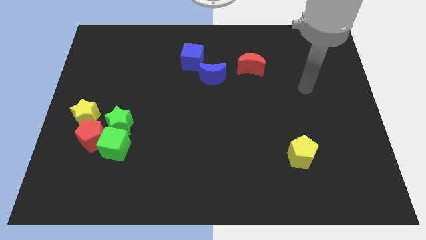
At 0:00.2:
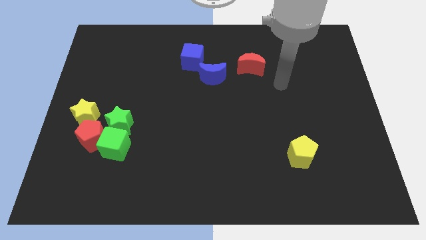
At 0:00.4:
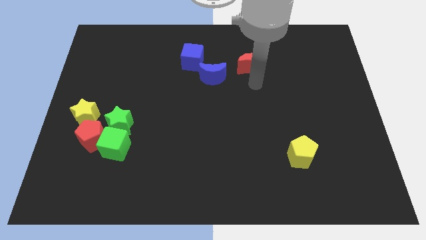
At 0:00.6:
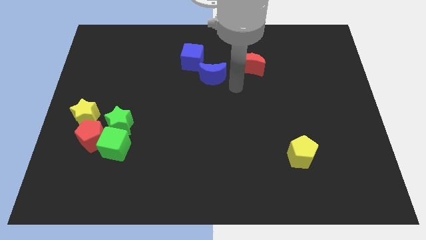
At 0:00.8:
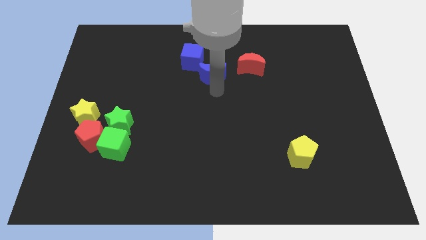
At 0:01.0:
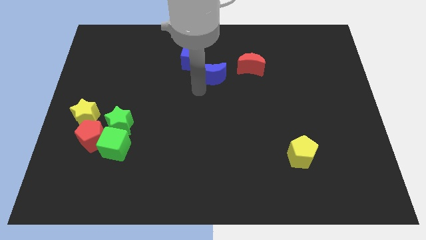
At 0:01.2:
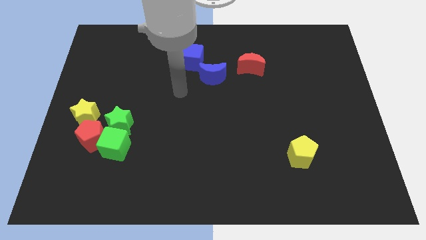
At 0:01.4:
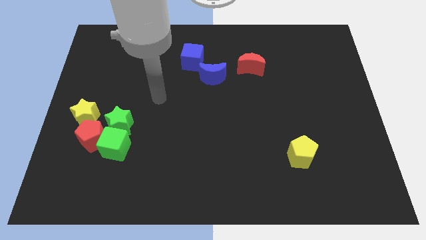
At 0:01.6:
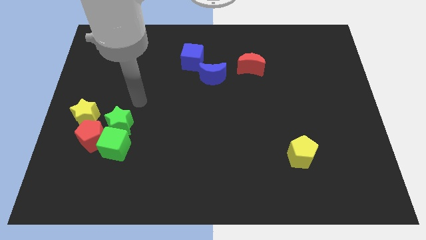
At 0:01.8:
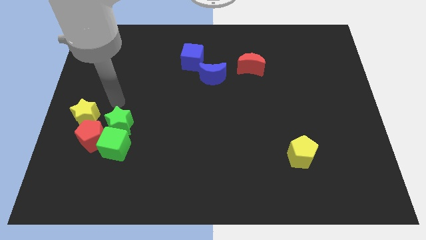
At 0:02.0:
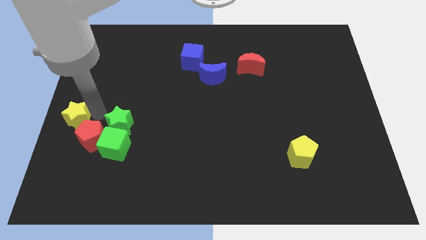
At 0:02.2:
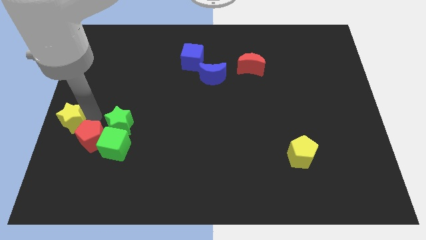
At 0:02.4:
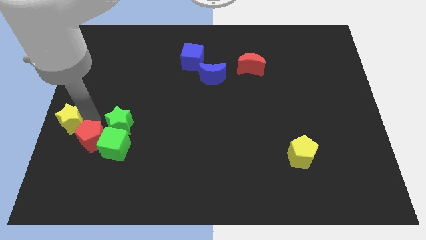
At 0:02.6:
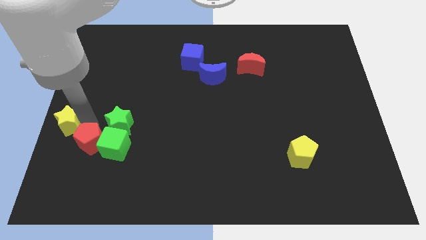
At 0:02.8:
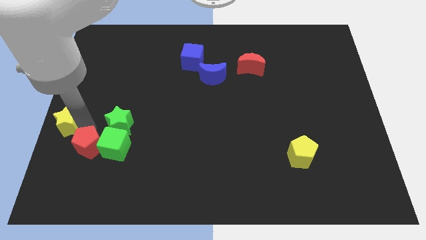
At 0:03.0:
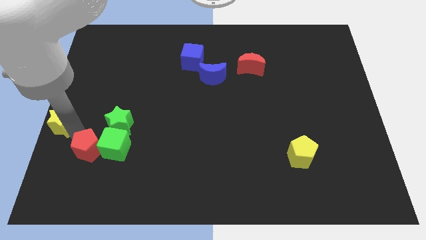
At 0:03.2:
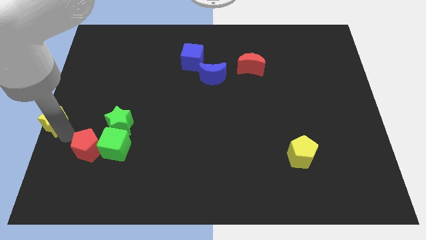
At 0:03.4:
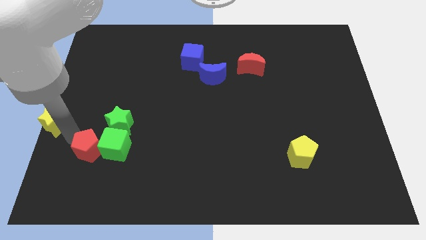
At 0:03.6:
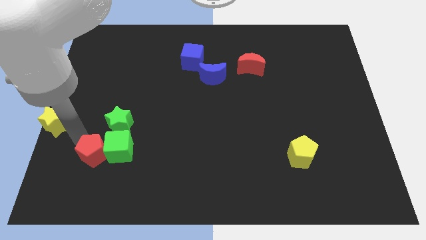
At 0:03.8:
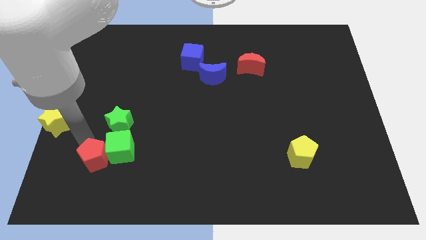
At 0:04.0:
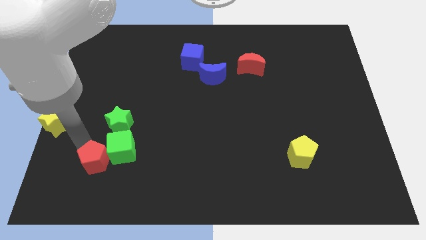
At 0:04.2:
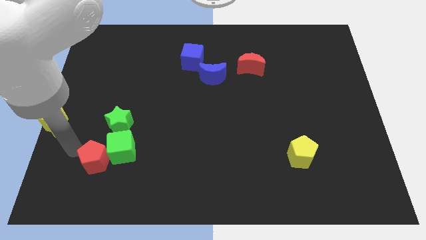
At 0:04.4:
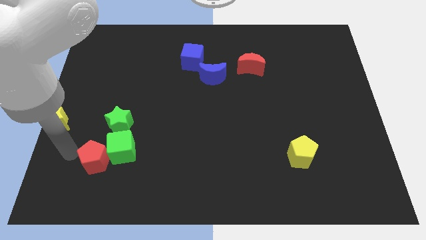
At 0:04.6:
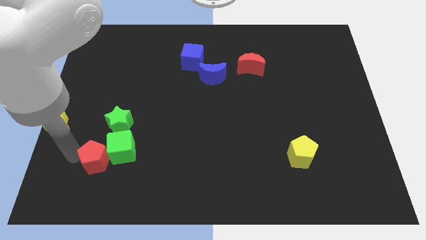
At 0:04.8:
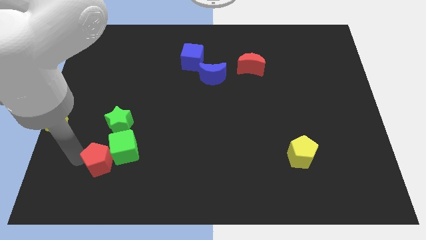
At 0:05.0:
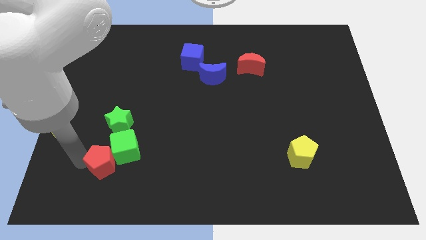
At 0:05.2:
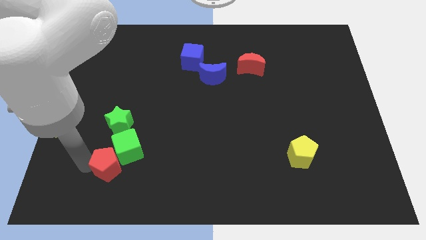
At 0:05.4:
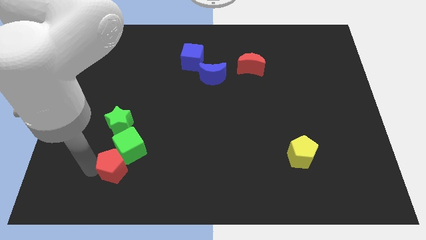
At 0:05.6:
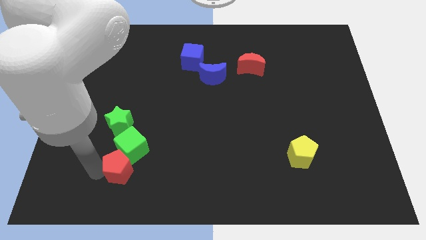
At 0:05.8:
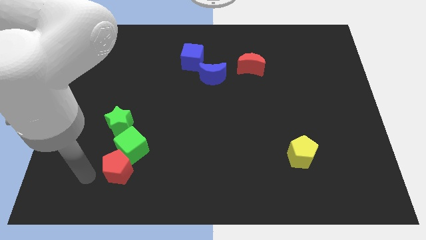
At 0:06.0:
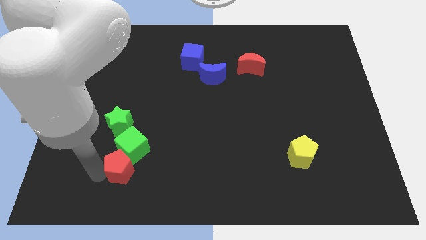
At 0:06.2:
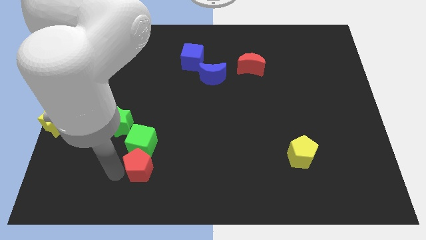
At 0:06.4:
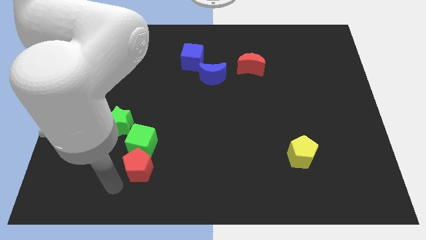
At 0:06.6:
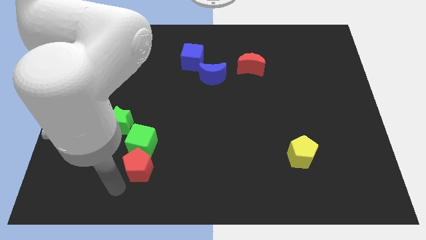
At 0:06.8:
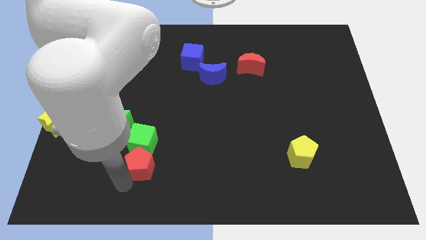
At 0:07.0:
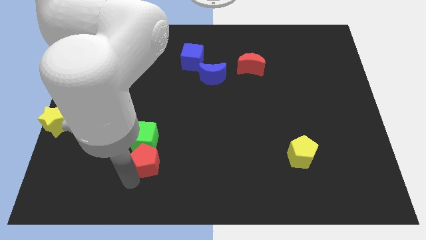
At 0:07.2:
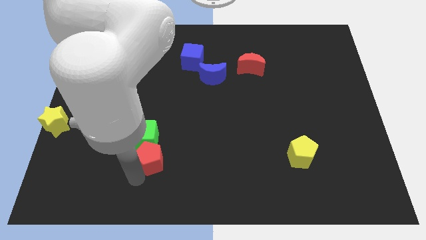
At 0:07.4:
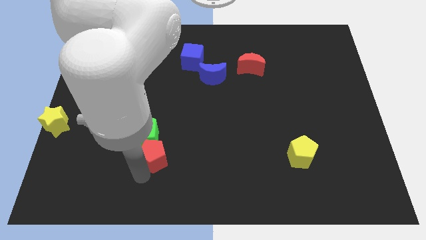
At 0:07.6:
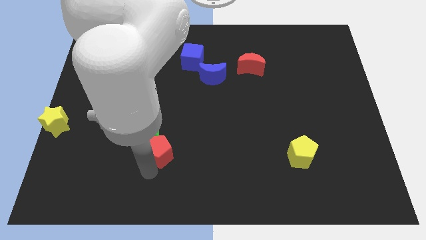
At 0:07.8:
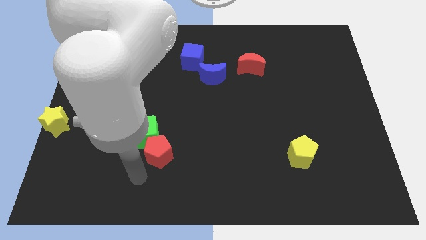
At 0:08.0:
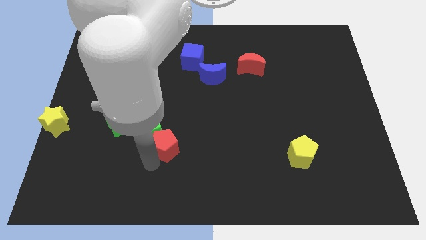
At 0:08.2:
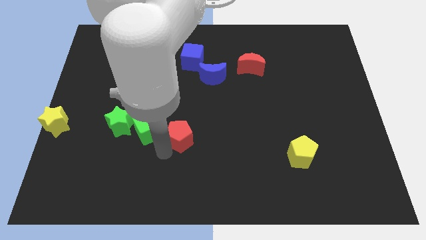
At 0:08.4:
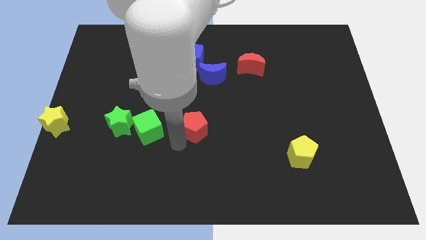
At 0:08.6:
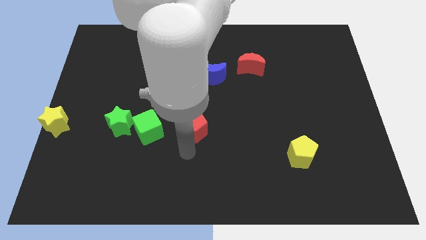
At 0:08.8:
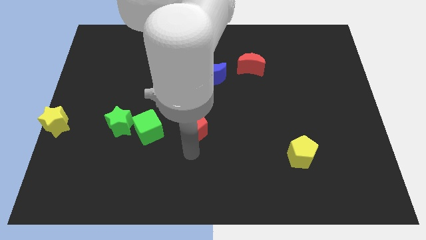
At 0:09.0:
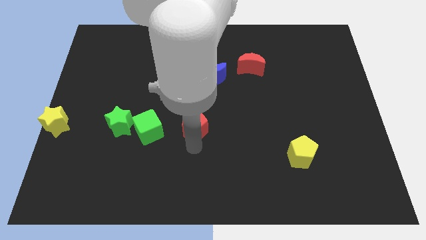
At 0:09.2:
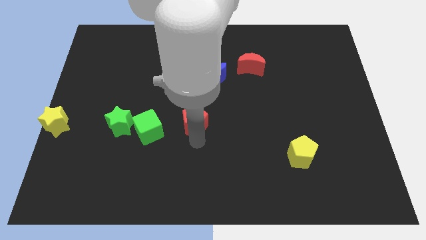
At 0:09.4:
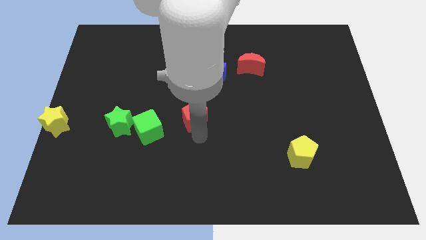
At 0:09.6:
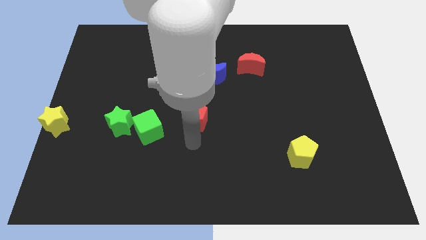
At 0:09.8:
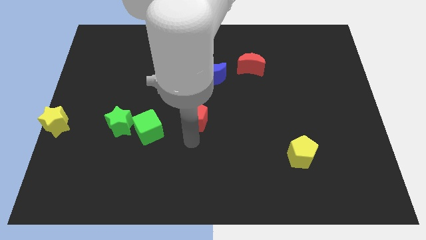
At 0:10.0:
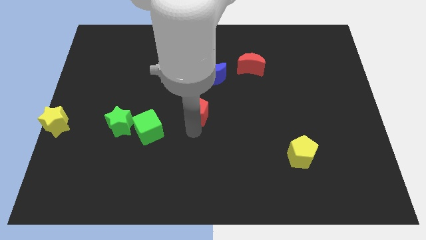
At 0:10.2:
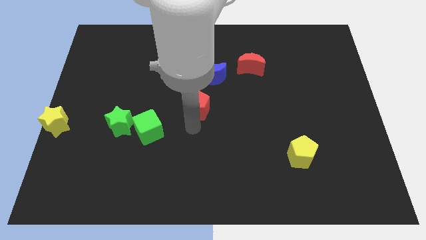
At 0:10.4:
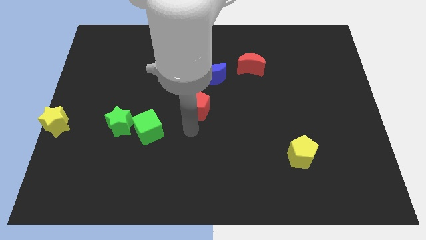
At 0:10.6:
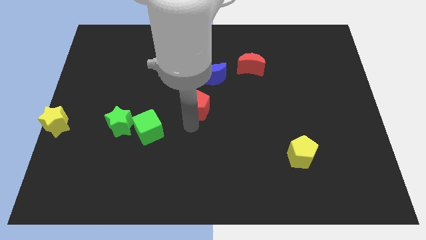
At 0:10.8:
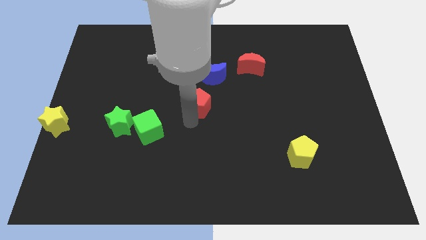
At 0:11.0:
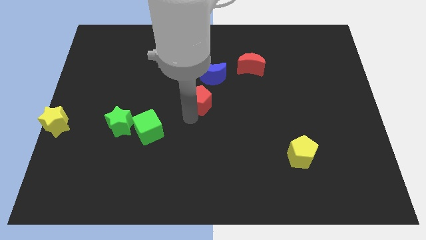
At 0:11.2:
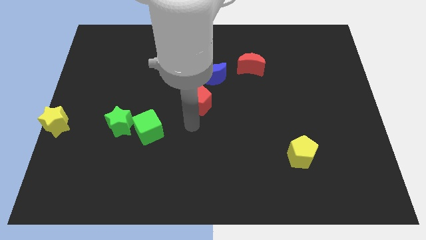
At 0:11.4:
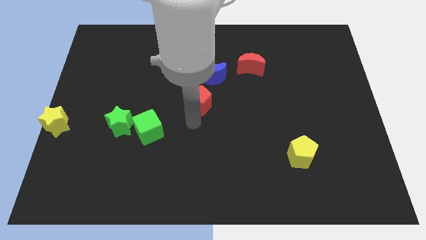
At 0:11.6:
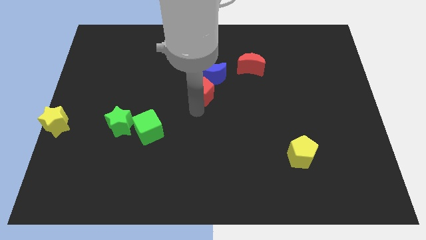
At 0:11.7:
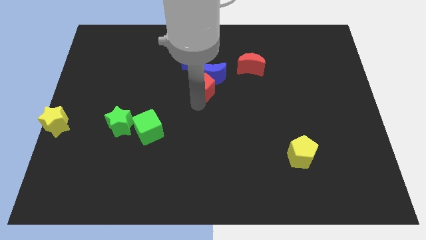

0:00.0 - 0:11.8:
slide the red pentagon close to the blue moon

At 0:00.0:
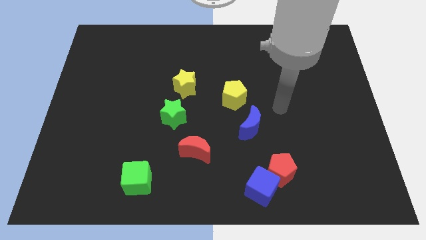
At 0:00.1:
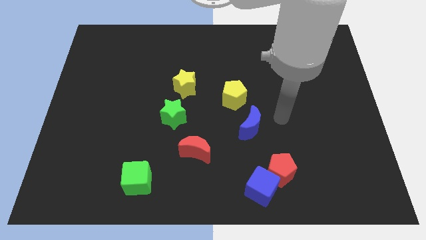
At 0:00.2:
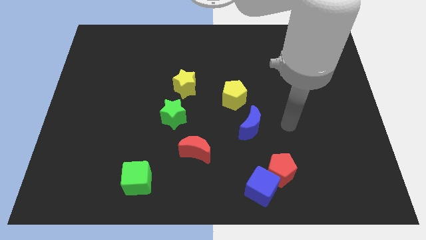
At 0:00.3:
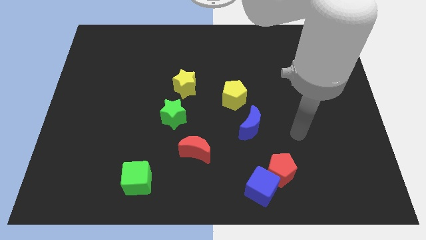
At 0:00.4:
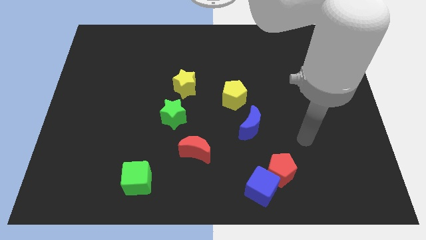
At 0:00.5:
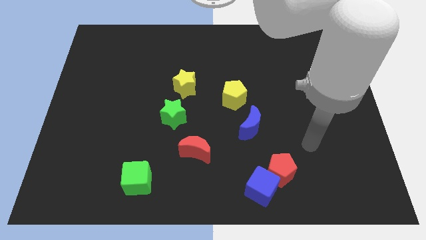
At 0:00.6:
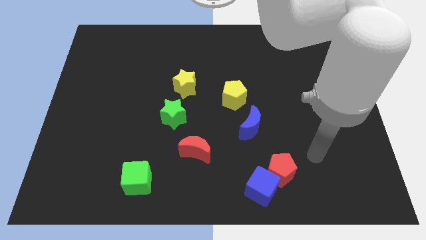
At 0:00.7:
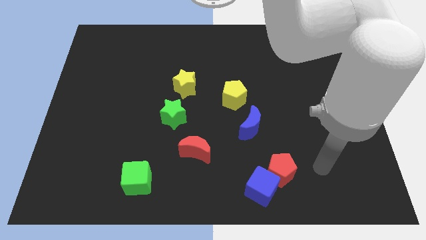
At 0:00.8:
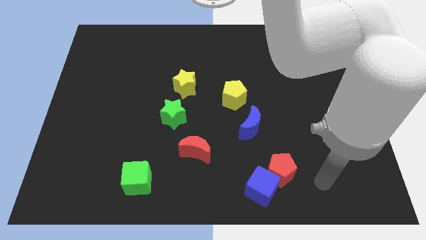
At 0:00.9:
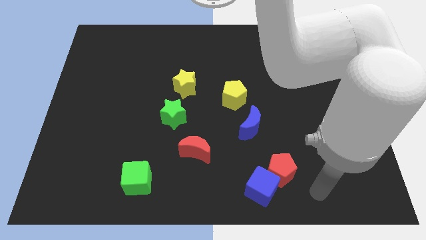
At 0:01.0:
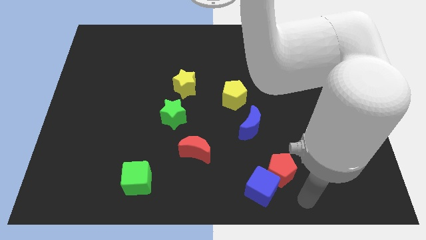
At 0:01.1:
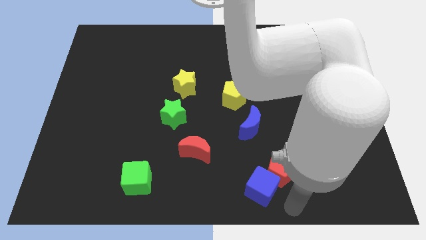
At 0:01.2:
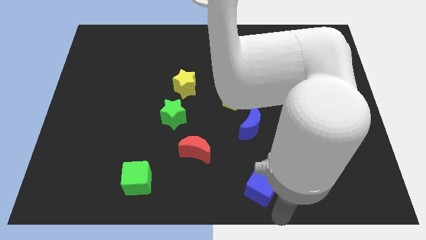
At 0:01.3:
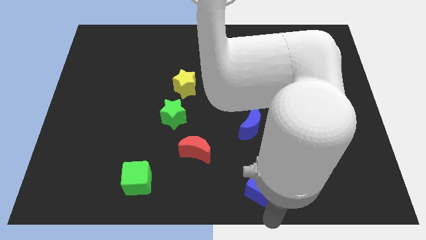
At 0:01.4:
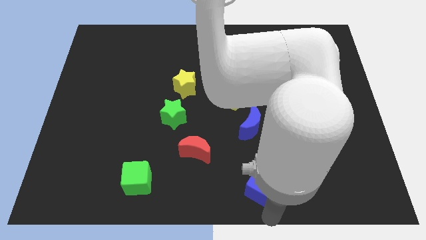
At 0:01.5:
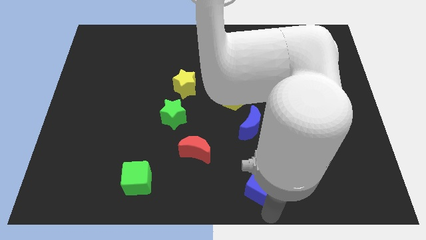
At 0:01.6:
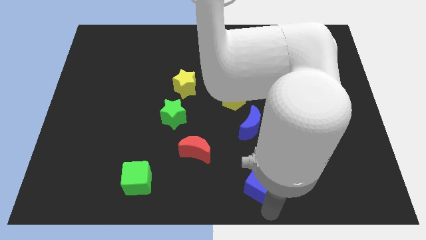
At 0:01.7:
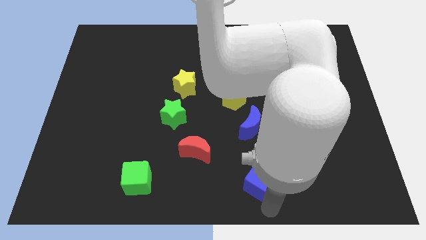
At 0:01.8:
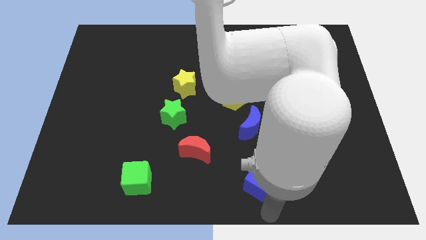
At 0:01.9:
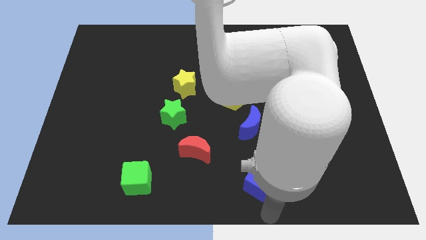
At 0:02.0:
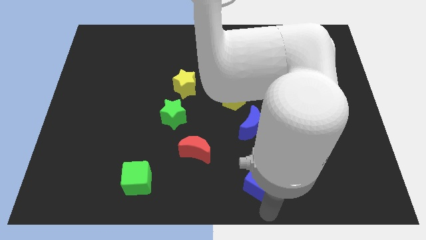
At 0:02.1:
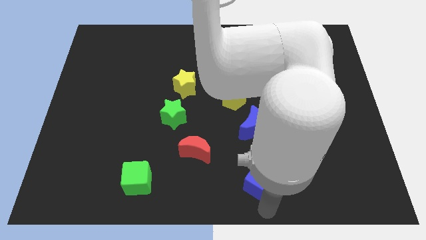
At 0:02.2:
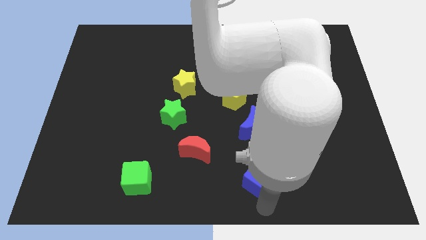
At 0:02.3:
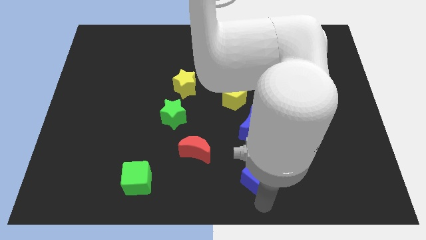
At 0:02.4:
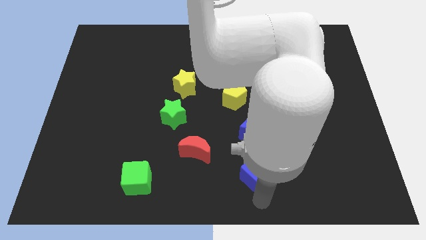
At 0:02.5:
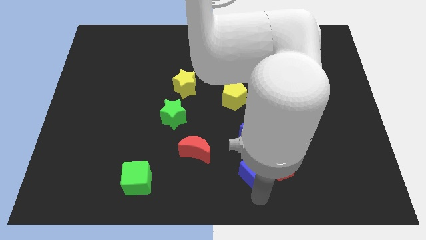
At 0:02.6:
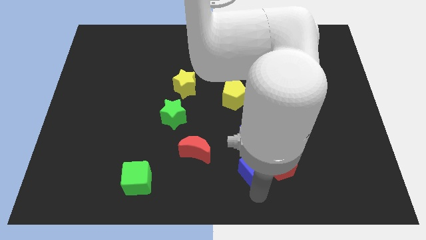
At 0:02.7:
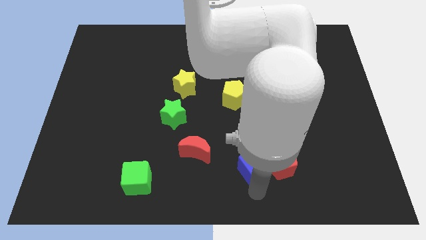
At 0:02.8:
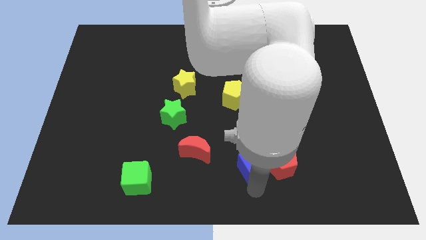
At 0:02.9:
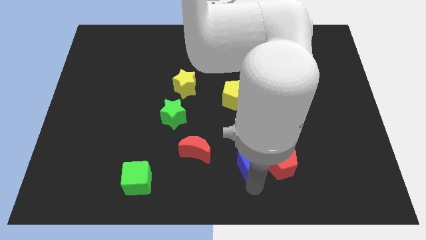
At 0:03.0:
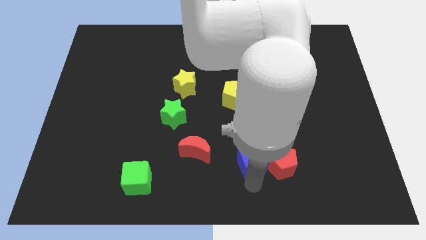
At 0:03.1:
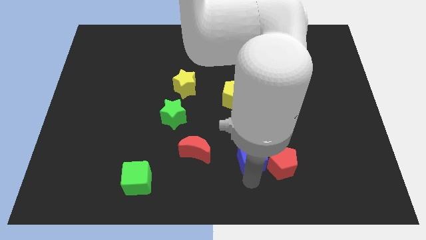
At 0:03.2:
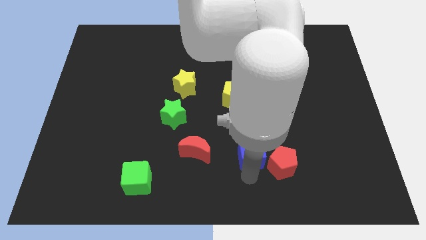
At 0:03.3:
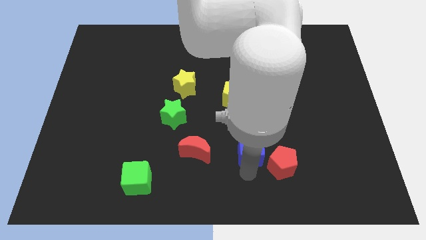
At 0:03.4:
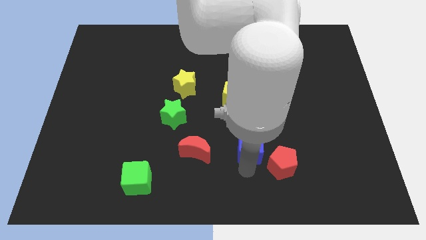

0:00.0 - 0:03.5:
push the blue cube next to the blue moon
